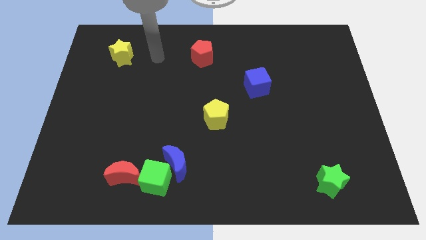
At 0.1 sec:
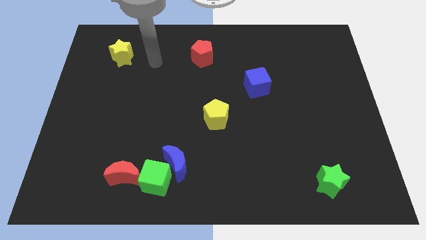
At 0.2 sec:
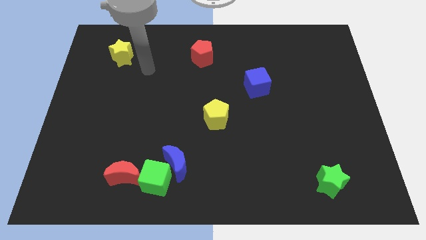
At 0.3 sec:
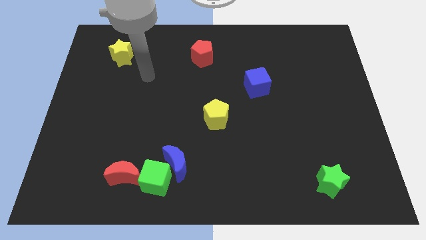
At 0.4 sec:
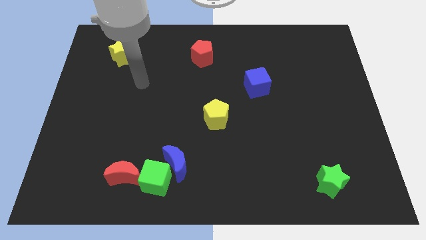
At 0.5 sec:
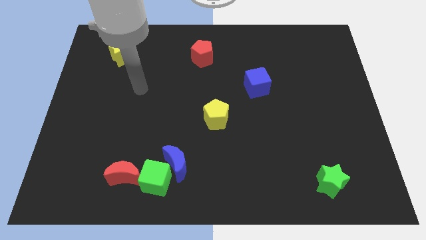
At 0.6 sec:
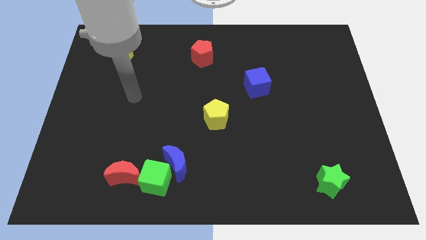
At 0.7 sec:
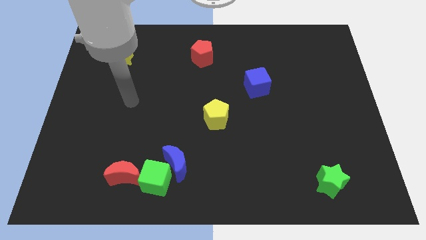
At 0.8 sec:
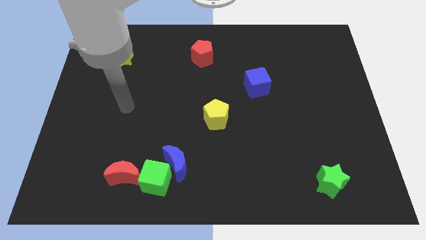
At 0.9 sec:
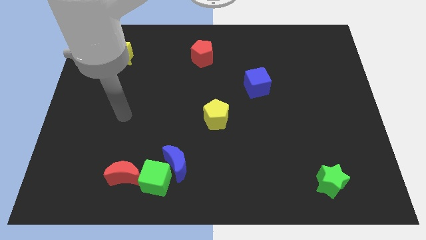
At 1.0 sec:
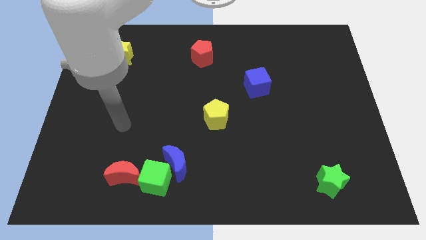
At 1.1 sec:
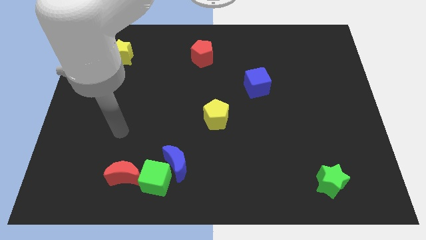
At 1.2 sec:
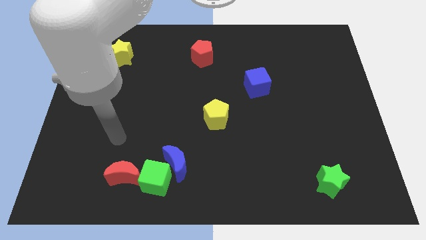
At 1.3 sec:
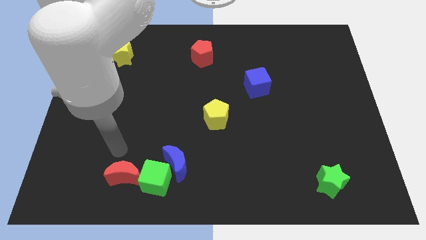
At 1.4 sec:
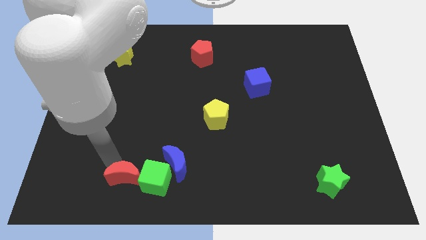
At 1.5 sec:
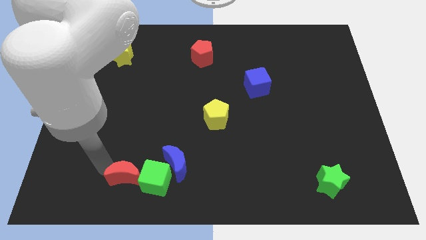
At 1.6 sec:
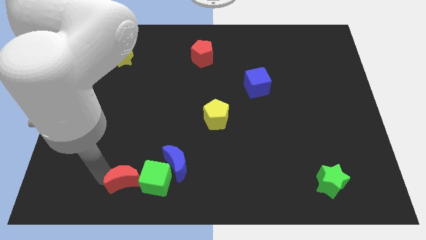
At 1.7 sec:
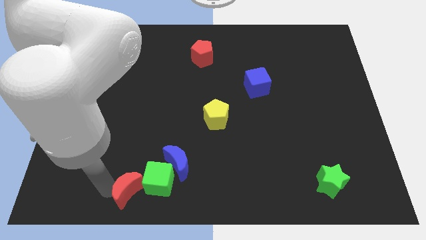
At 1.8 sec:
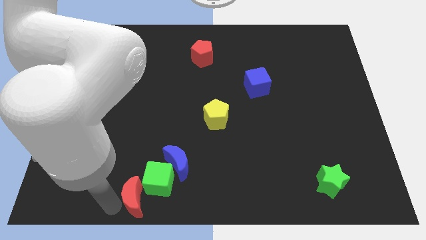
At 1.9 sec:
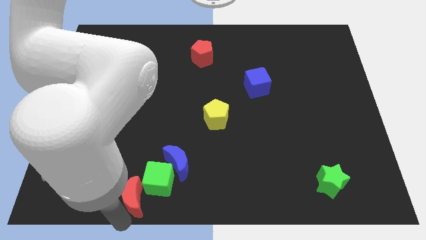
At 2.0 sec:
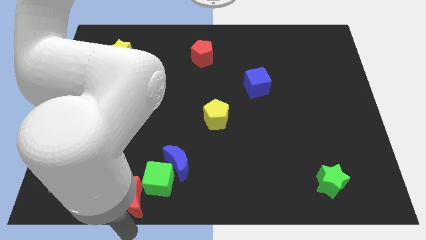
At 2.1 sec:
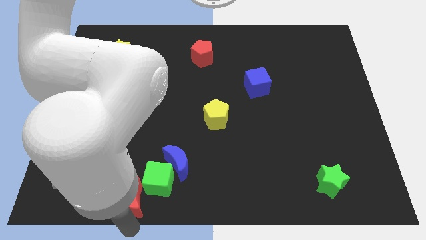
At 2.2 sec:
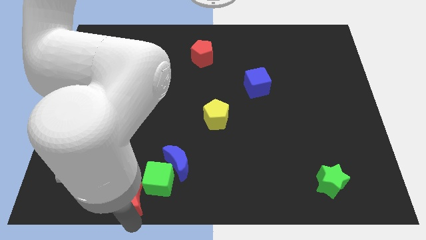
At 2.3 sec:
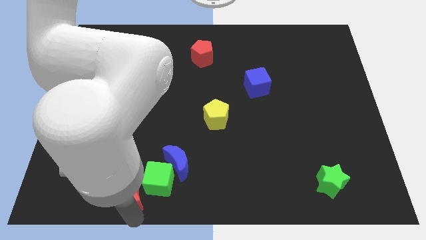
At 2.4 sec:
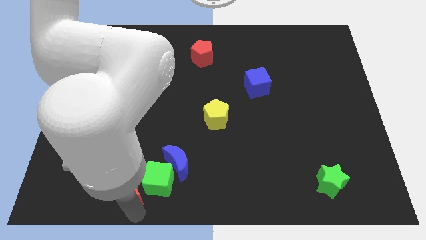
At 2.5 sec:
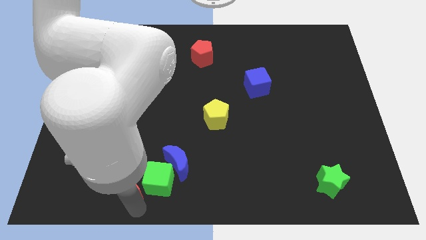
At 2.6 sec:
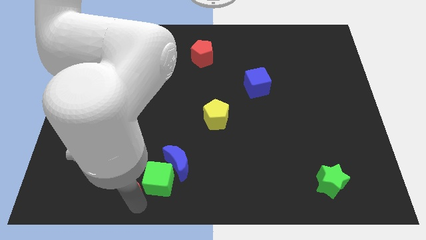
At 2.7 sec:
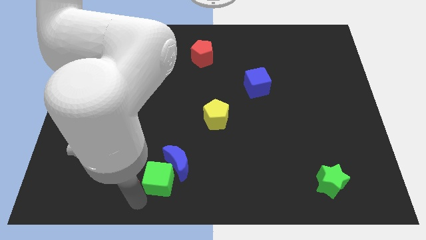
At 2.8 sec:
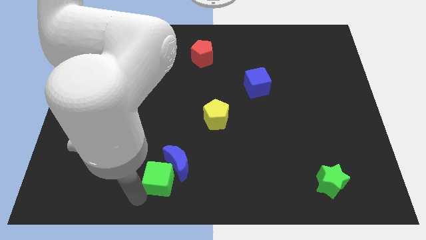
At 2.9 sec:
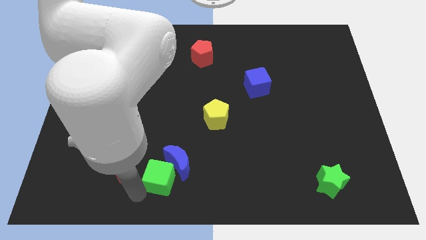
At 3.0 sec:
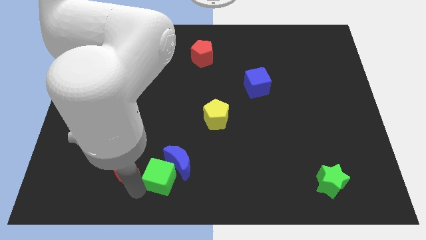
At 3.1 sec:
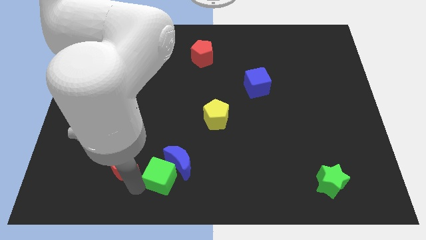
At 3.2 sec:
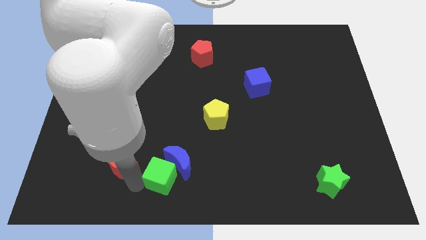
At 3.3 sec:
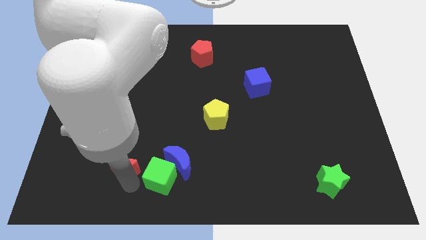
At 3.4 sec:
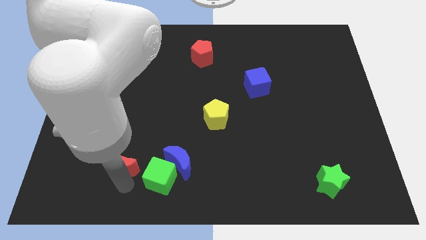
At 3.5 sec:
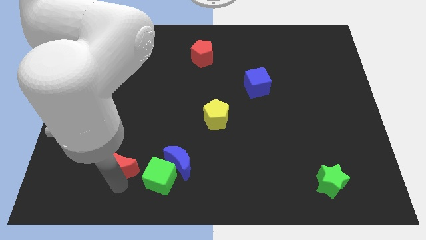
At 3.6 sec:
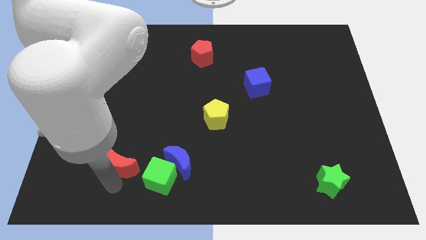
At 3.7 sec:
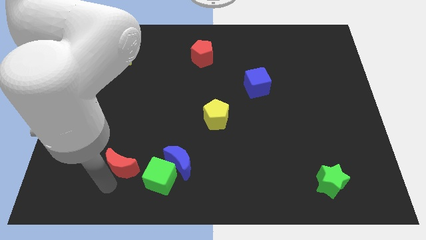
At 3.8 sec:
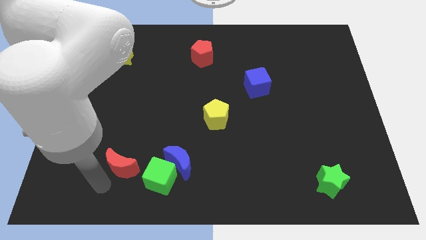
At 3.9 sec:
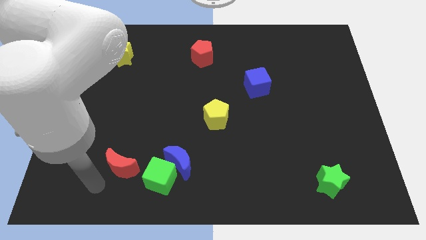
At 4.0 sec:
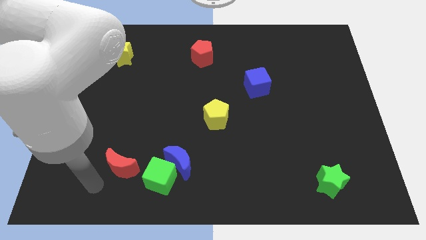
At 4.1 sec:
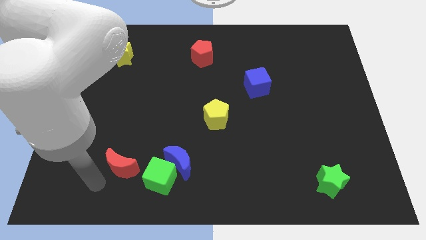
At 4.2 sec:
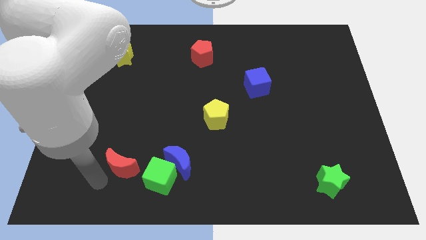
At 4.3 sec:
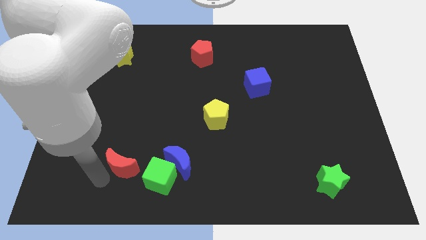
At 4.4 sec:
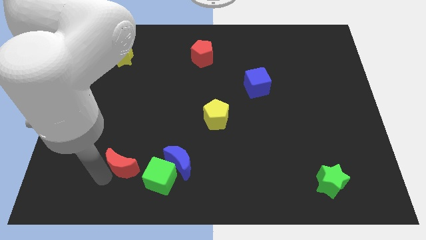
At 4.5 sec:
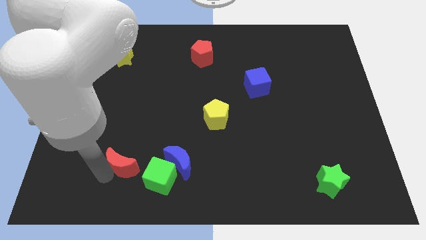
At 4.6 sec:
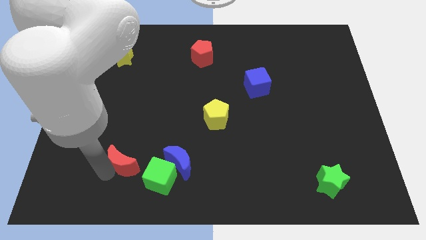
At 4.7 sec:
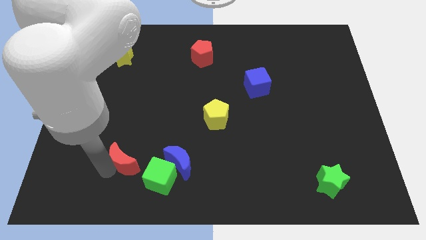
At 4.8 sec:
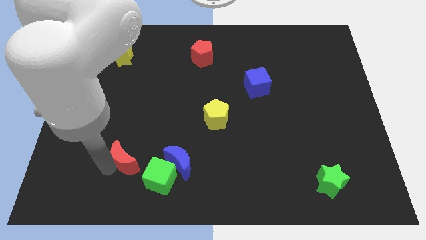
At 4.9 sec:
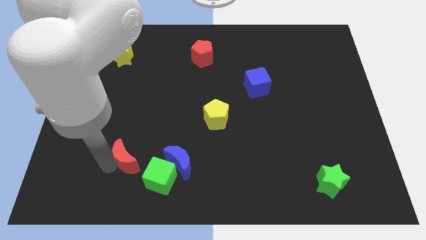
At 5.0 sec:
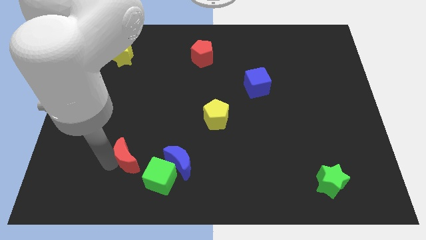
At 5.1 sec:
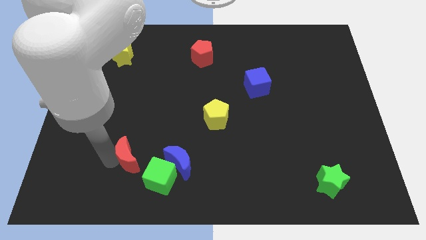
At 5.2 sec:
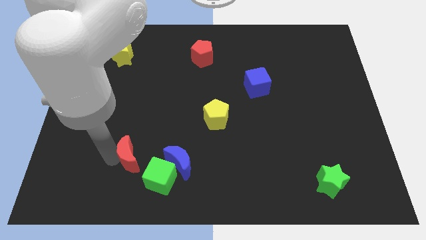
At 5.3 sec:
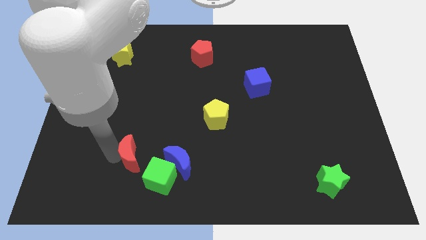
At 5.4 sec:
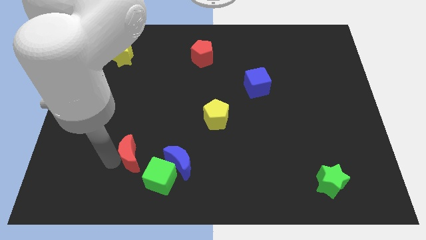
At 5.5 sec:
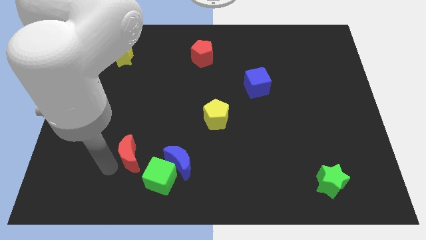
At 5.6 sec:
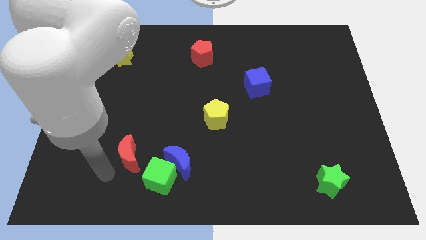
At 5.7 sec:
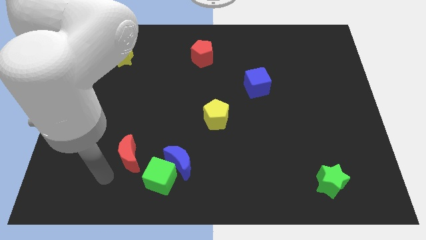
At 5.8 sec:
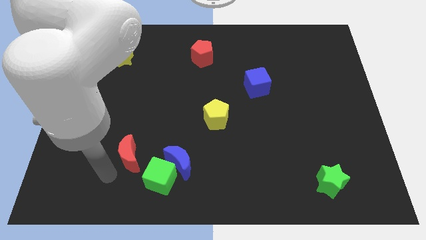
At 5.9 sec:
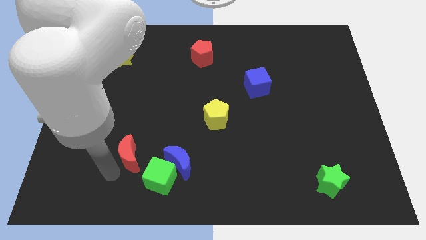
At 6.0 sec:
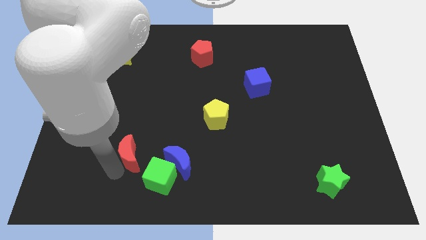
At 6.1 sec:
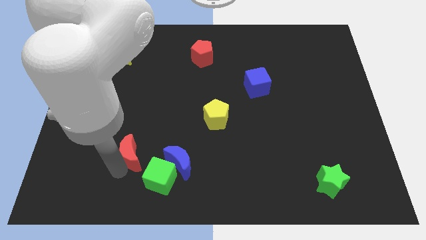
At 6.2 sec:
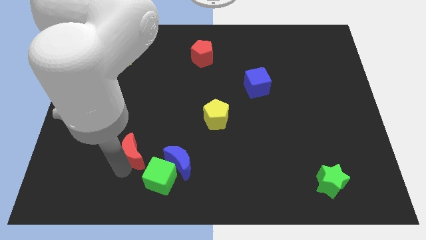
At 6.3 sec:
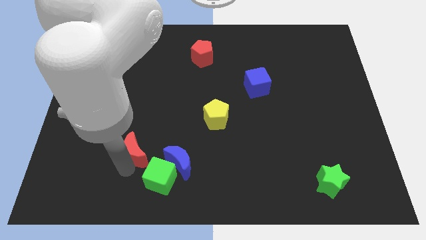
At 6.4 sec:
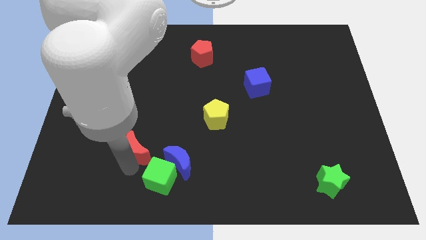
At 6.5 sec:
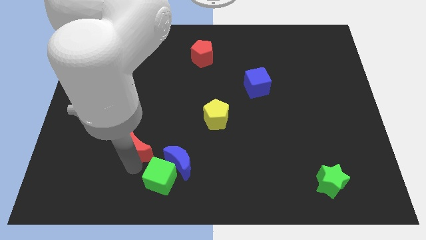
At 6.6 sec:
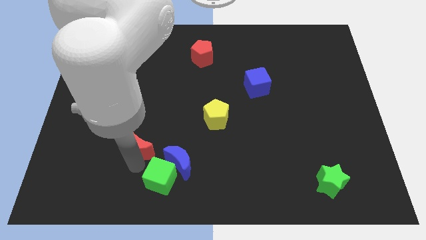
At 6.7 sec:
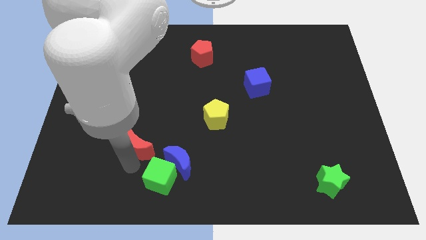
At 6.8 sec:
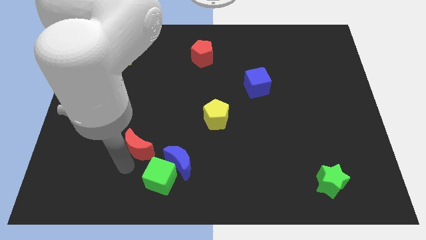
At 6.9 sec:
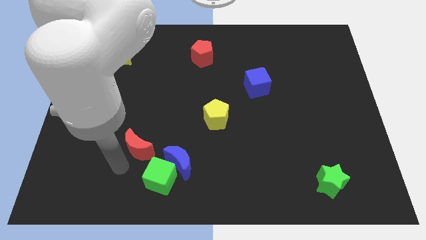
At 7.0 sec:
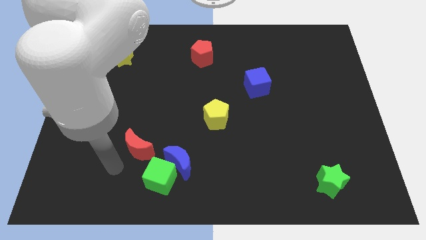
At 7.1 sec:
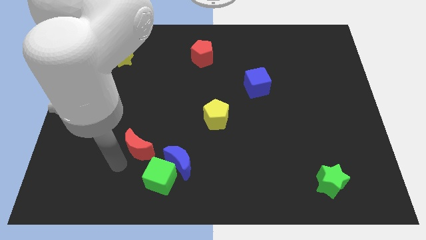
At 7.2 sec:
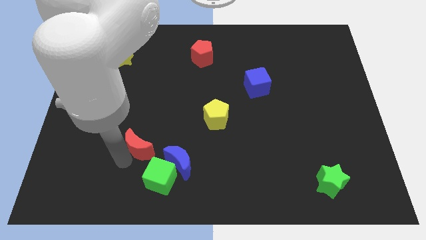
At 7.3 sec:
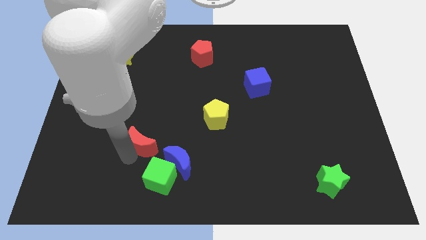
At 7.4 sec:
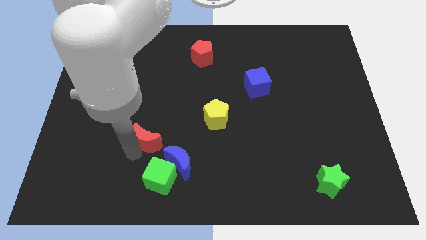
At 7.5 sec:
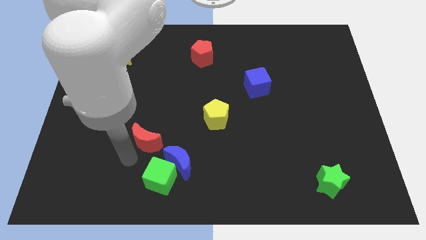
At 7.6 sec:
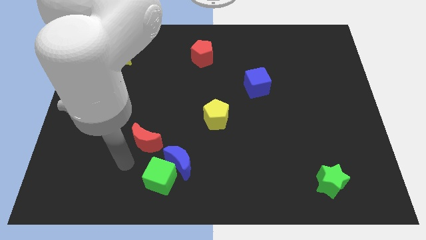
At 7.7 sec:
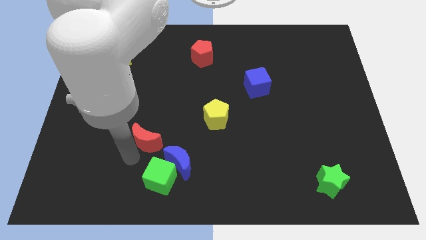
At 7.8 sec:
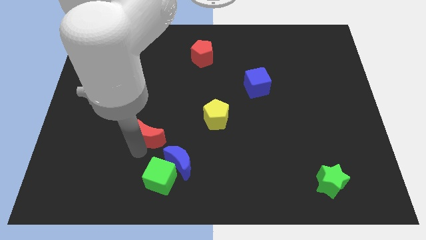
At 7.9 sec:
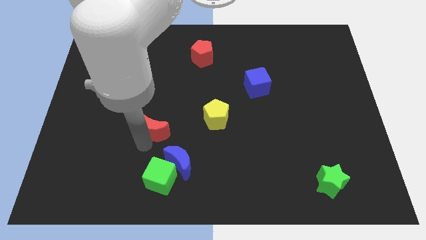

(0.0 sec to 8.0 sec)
slide the red moon to the left side of the yellow pentagon
